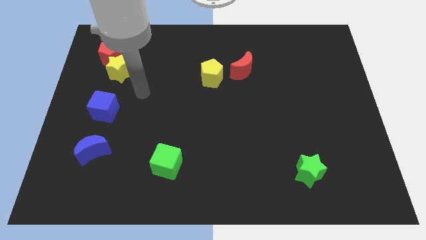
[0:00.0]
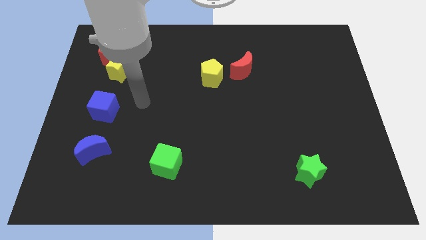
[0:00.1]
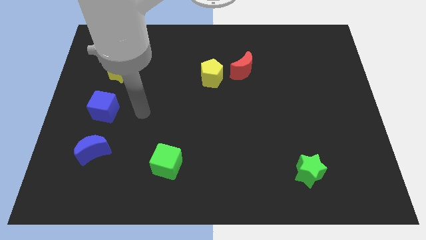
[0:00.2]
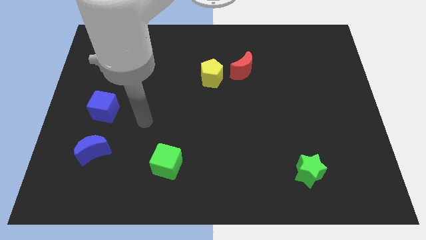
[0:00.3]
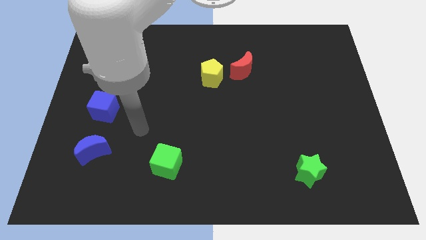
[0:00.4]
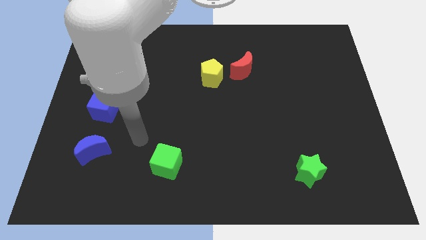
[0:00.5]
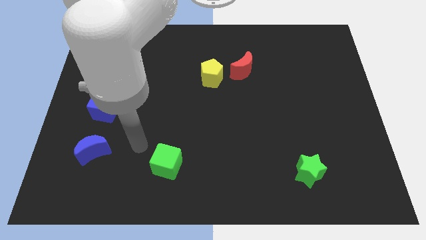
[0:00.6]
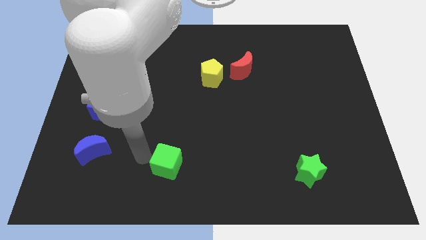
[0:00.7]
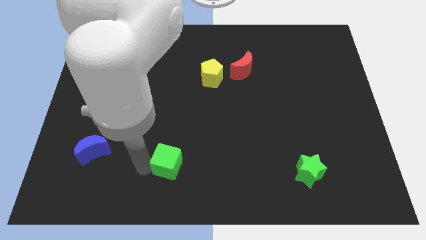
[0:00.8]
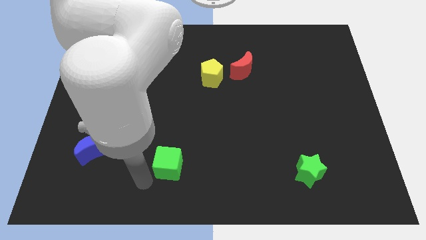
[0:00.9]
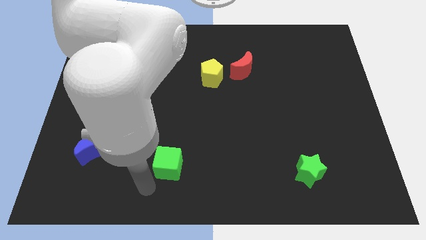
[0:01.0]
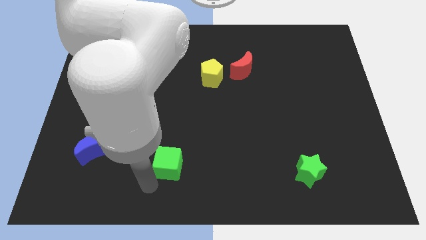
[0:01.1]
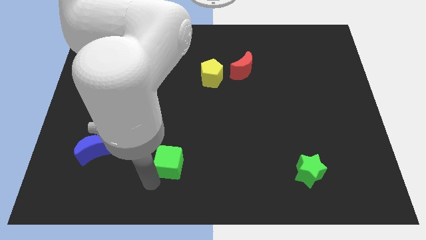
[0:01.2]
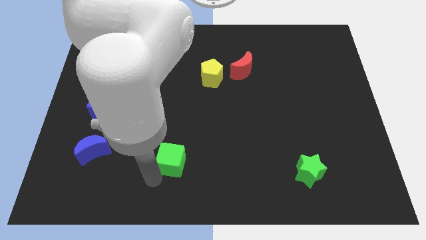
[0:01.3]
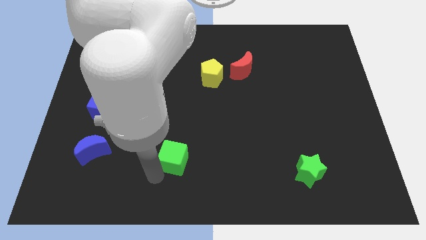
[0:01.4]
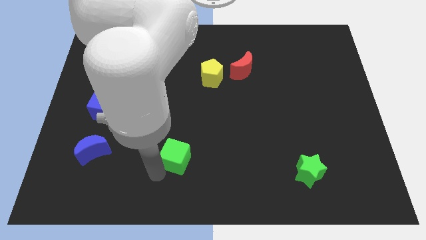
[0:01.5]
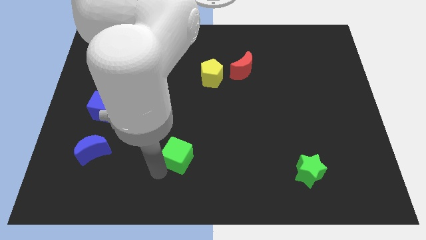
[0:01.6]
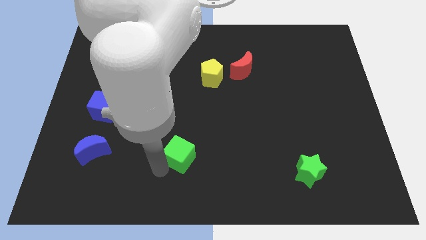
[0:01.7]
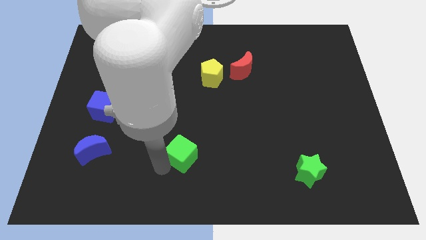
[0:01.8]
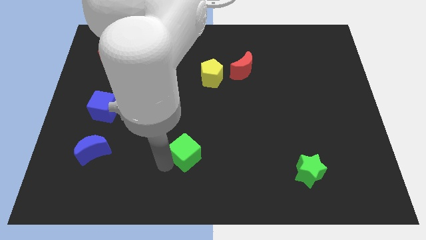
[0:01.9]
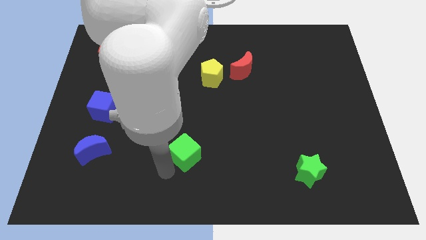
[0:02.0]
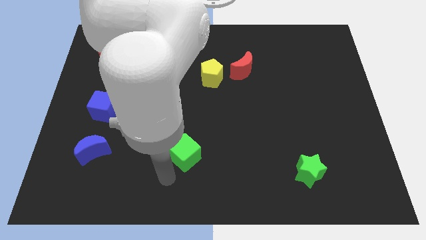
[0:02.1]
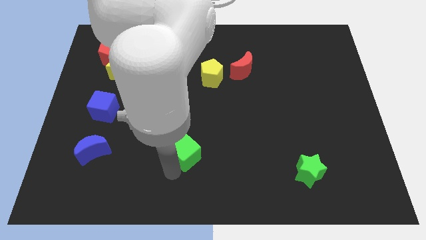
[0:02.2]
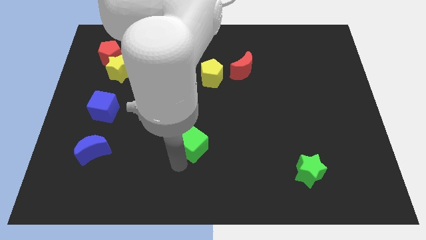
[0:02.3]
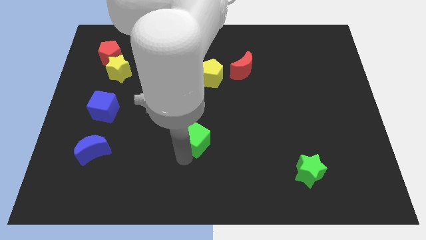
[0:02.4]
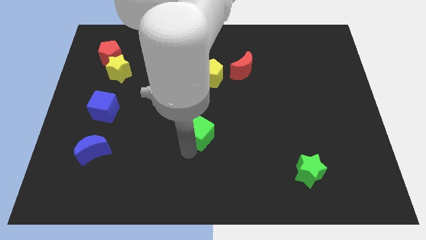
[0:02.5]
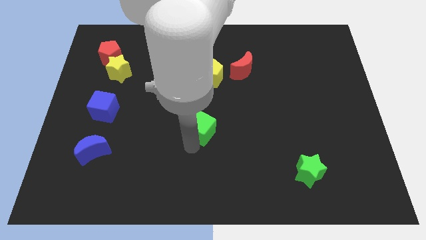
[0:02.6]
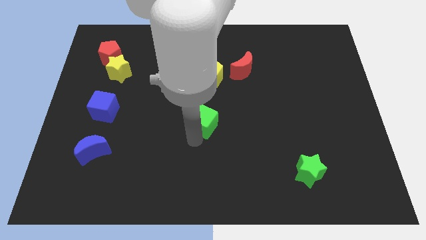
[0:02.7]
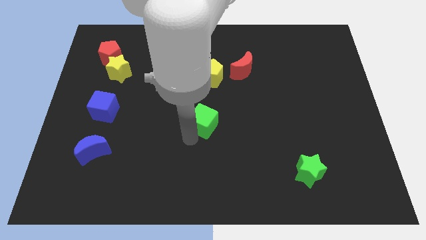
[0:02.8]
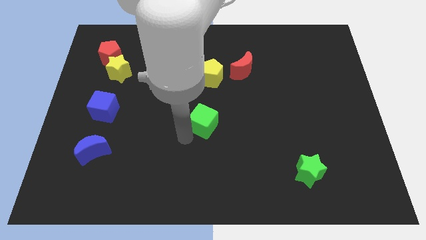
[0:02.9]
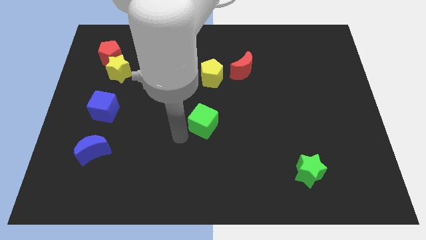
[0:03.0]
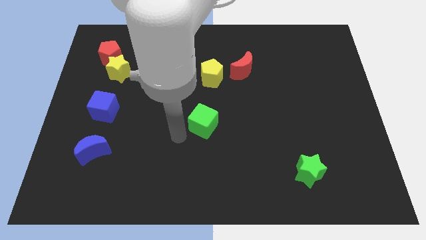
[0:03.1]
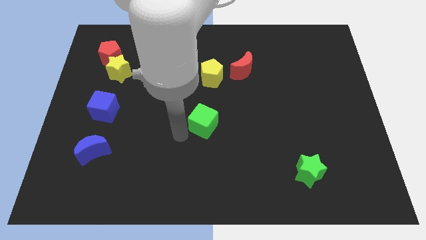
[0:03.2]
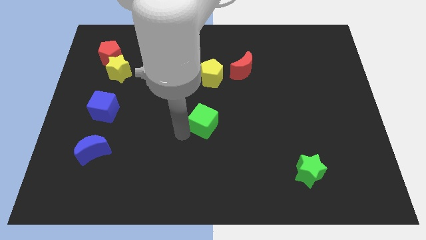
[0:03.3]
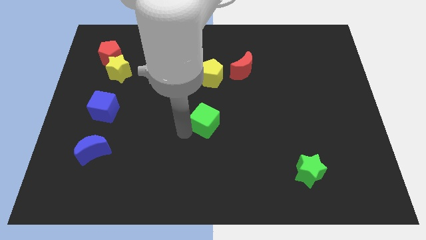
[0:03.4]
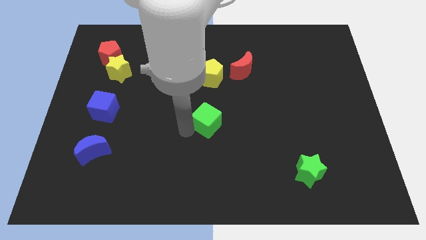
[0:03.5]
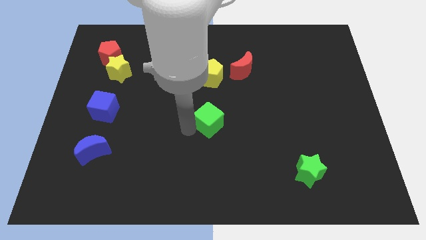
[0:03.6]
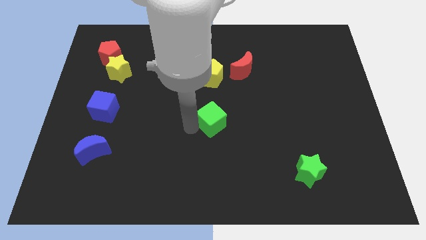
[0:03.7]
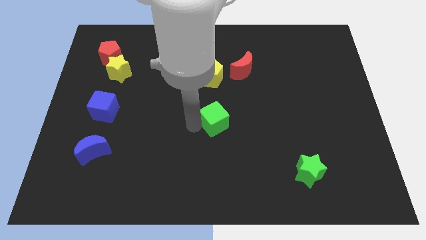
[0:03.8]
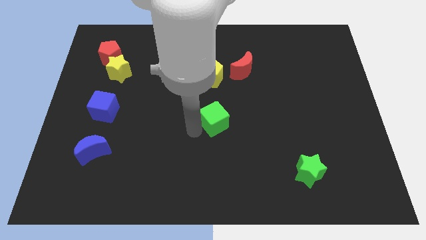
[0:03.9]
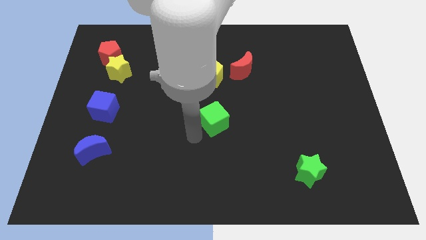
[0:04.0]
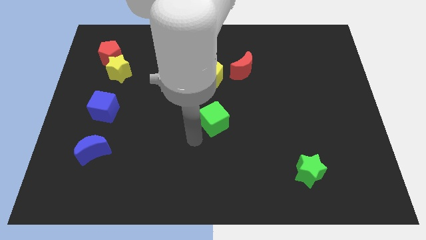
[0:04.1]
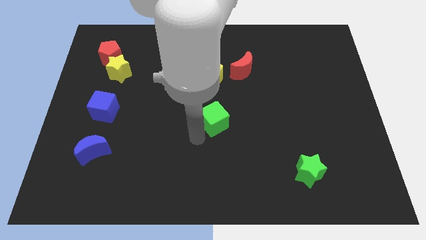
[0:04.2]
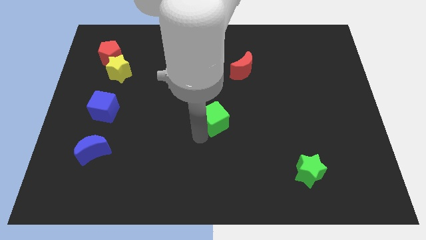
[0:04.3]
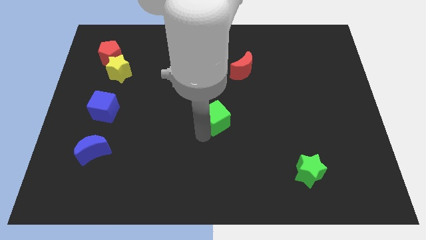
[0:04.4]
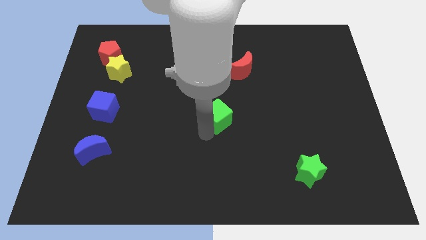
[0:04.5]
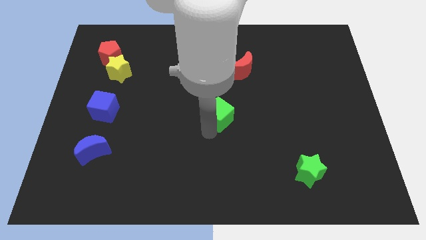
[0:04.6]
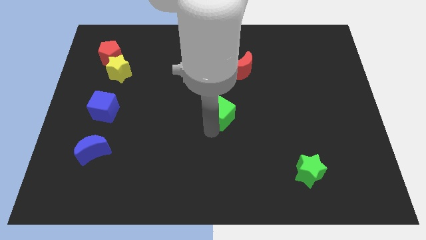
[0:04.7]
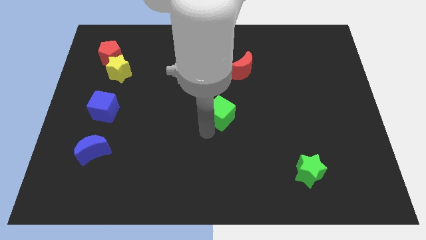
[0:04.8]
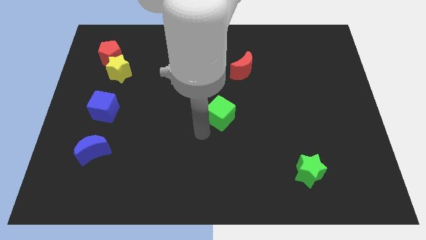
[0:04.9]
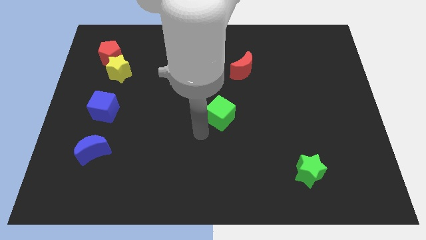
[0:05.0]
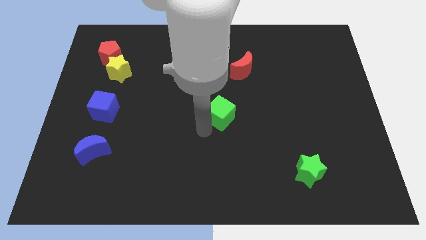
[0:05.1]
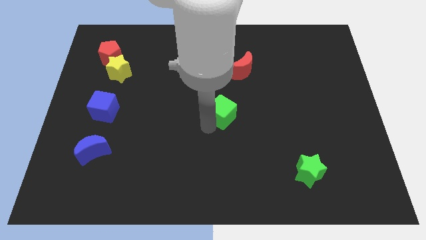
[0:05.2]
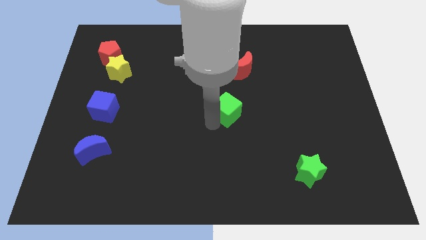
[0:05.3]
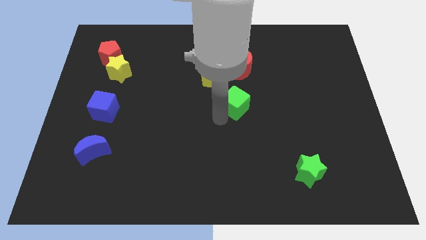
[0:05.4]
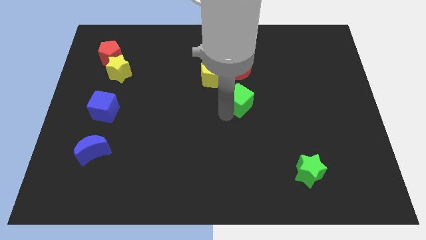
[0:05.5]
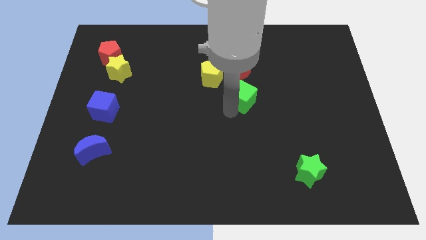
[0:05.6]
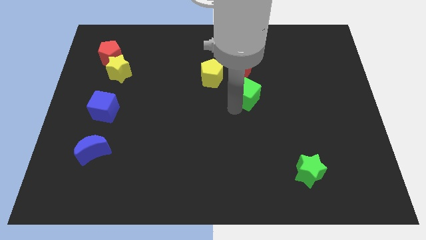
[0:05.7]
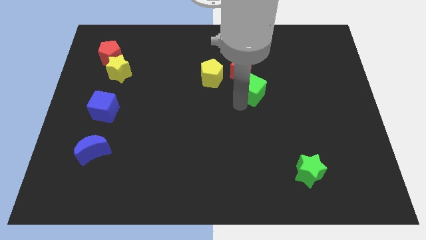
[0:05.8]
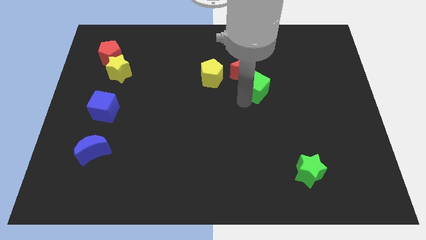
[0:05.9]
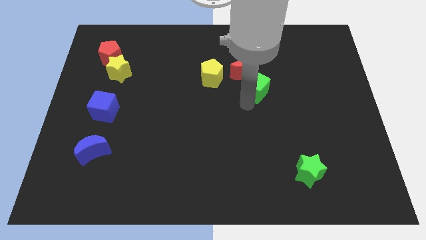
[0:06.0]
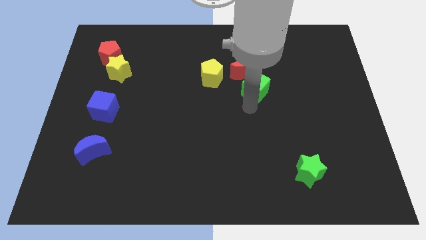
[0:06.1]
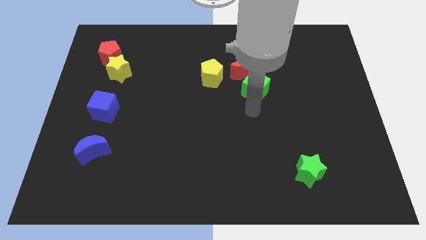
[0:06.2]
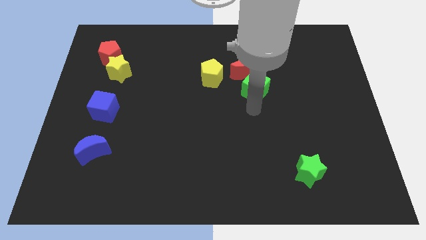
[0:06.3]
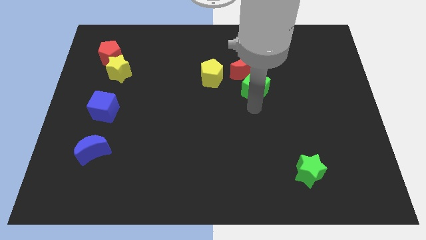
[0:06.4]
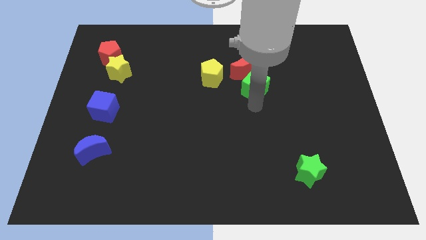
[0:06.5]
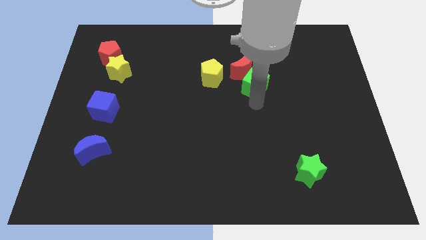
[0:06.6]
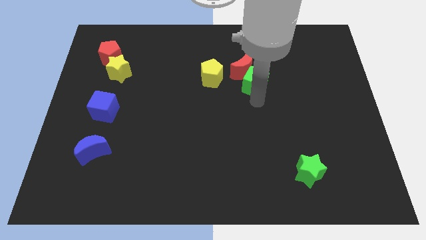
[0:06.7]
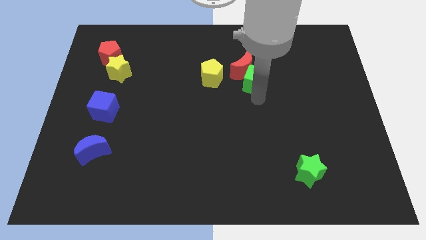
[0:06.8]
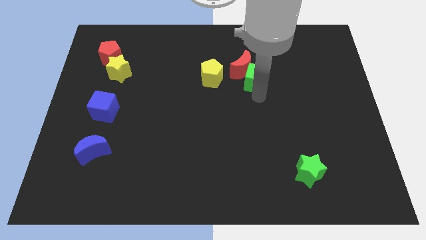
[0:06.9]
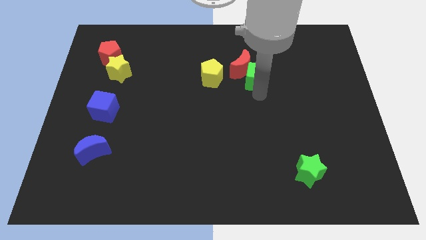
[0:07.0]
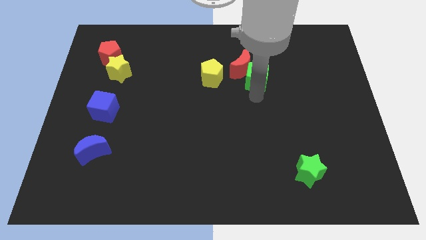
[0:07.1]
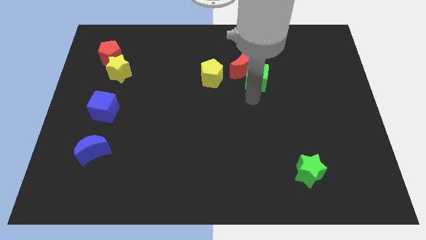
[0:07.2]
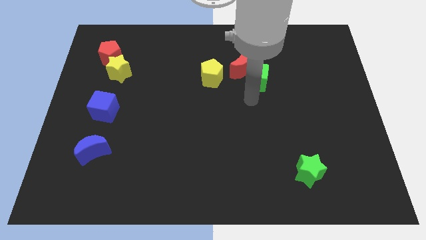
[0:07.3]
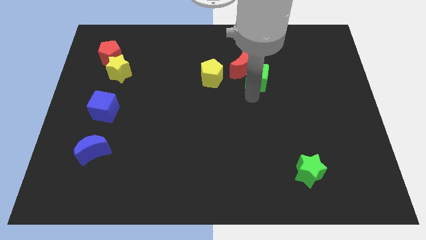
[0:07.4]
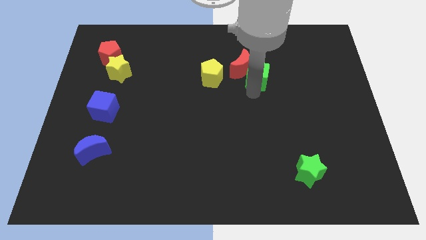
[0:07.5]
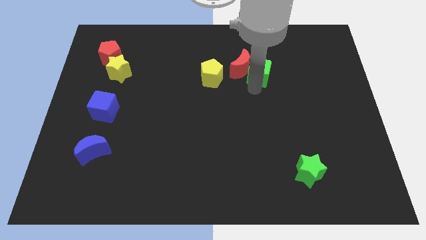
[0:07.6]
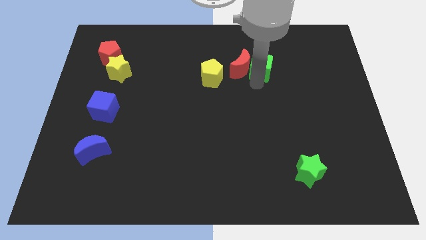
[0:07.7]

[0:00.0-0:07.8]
slide the green cube diagonally up and to the right of the red moon
